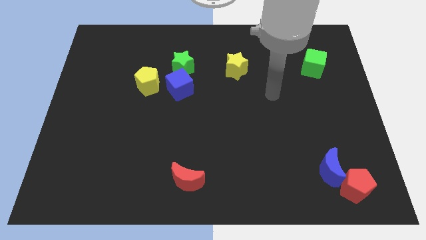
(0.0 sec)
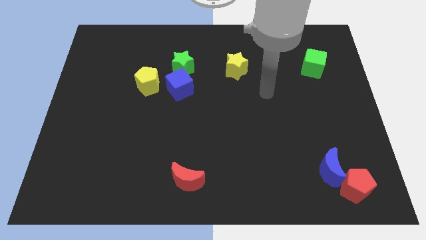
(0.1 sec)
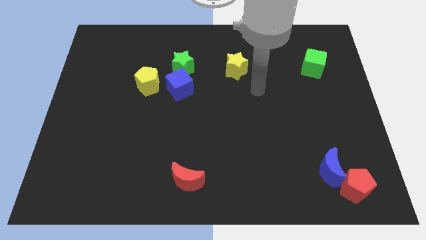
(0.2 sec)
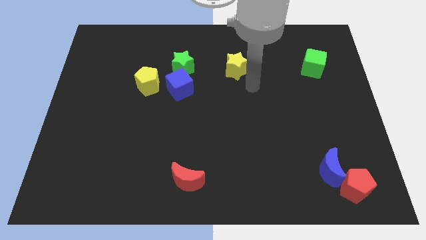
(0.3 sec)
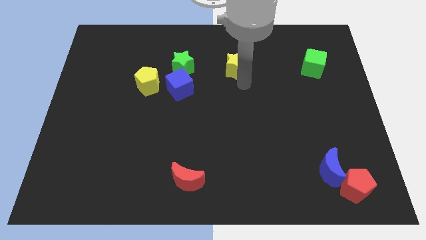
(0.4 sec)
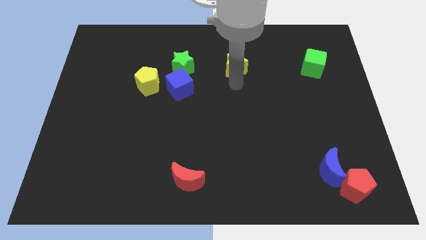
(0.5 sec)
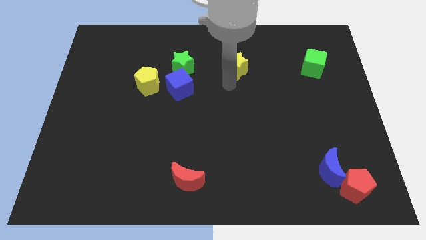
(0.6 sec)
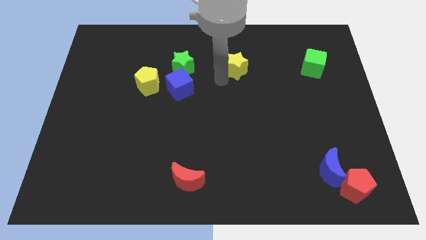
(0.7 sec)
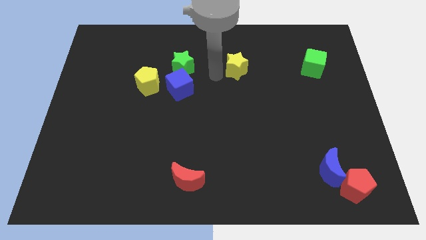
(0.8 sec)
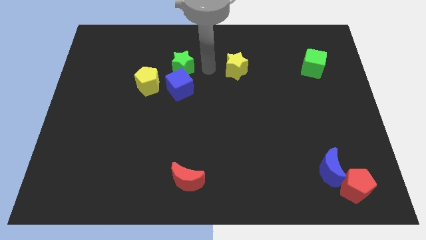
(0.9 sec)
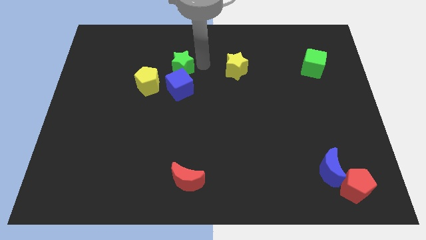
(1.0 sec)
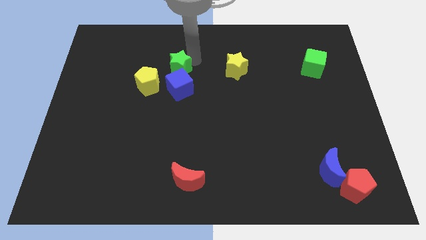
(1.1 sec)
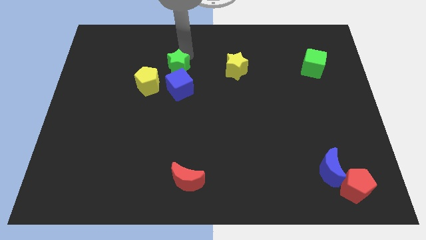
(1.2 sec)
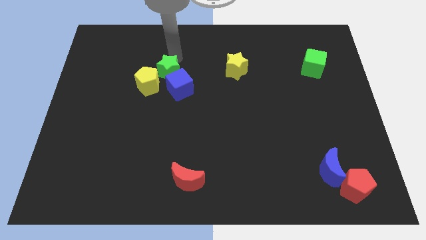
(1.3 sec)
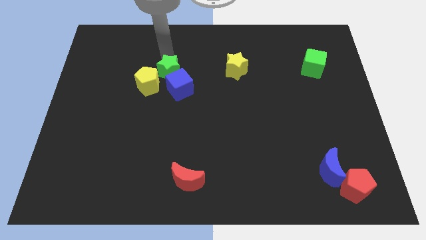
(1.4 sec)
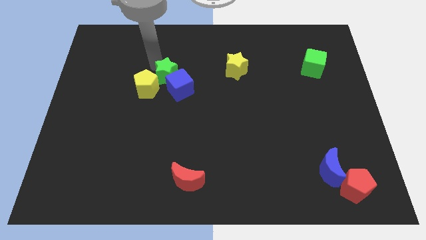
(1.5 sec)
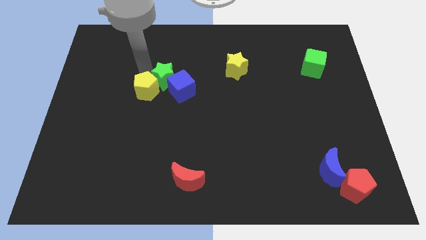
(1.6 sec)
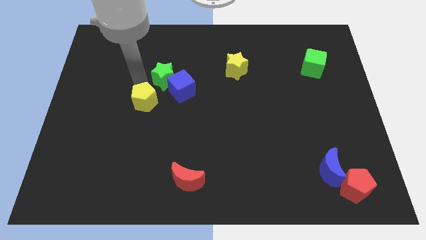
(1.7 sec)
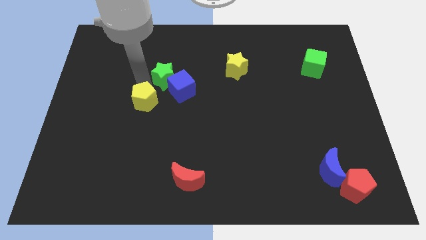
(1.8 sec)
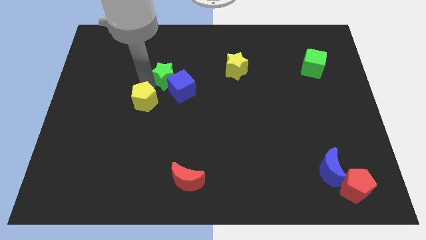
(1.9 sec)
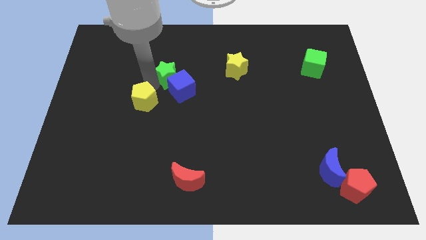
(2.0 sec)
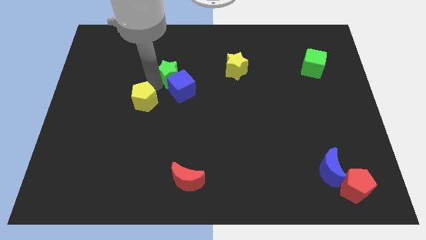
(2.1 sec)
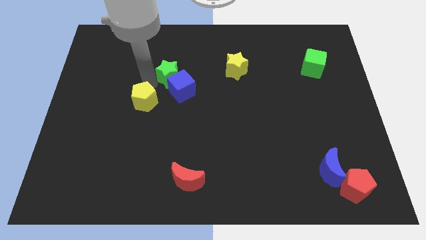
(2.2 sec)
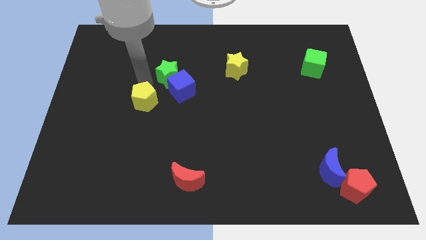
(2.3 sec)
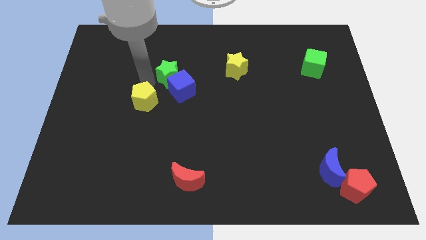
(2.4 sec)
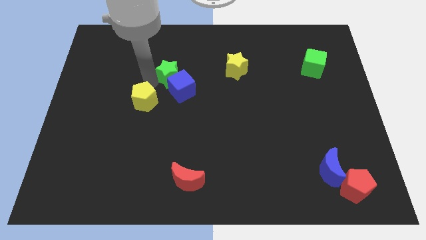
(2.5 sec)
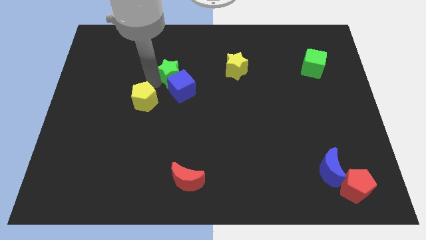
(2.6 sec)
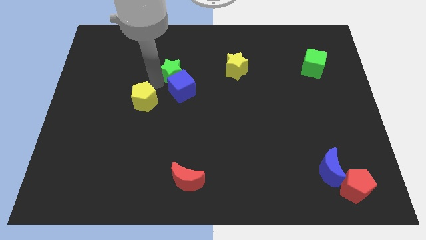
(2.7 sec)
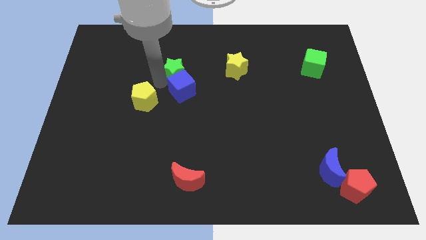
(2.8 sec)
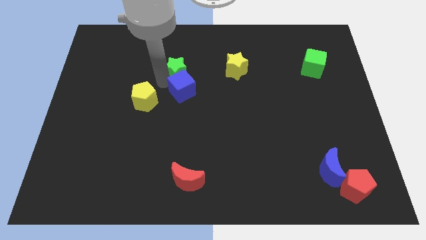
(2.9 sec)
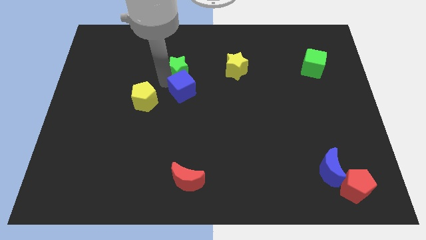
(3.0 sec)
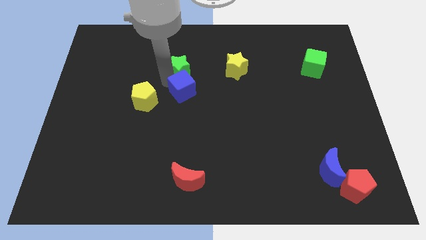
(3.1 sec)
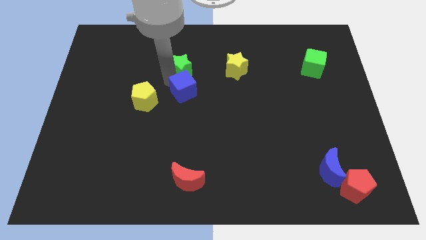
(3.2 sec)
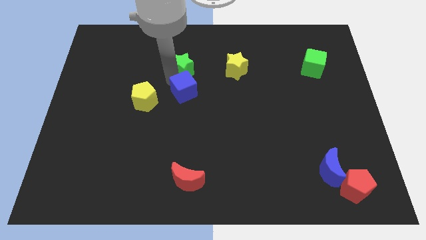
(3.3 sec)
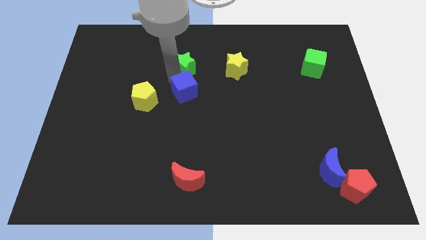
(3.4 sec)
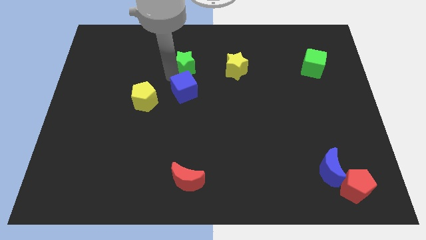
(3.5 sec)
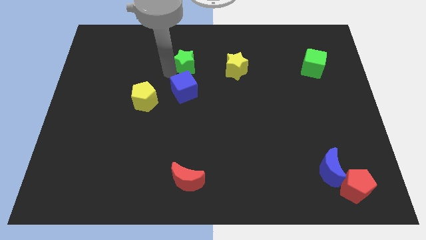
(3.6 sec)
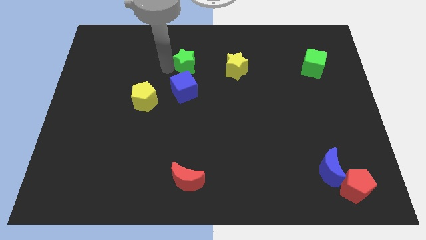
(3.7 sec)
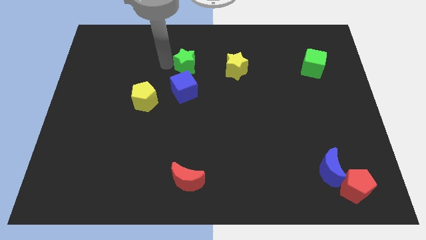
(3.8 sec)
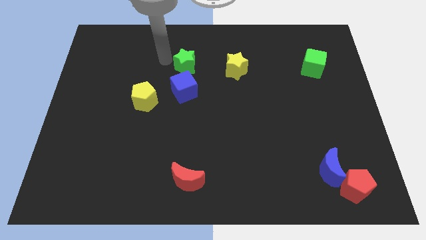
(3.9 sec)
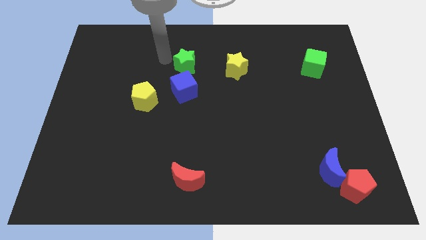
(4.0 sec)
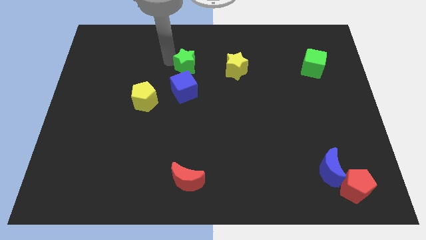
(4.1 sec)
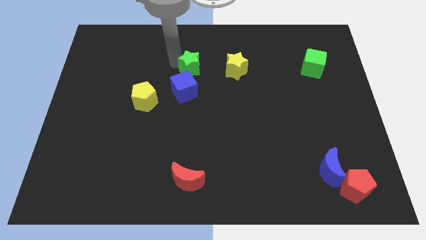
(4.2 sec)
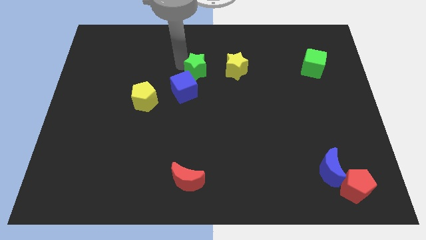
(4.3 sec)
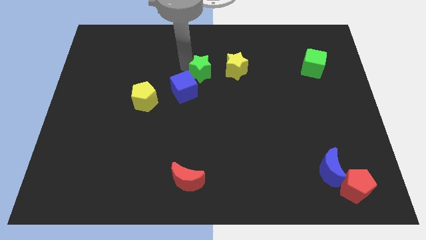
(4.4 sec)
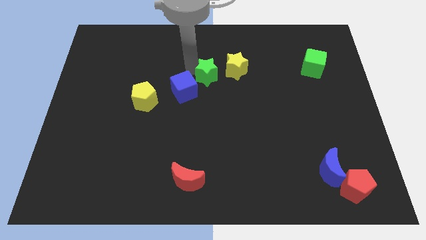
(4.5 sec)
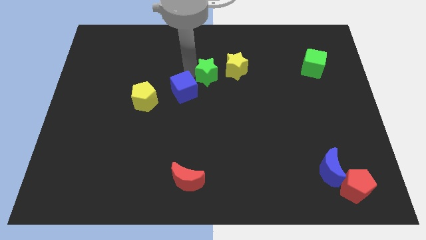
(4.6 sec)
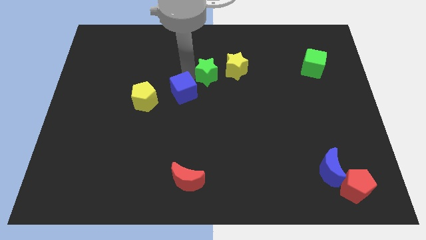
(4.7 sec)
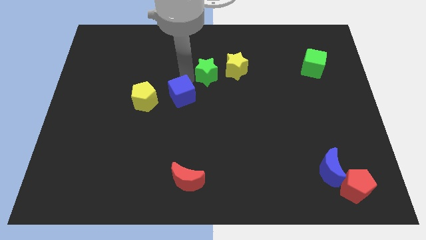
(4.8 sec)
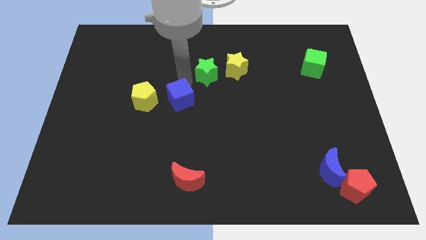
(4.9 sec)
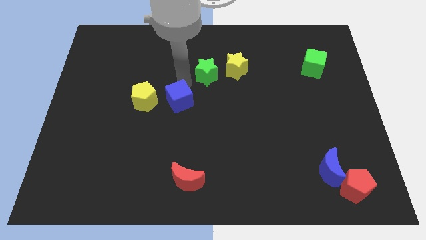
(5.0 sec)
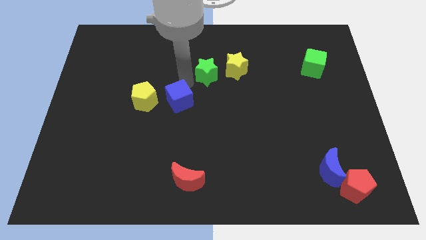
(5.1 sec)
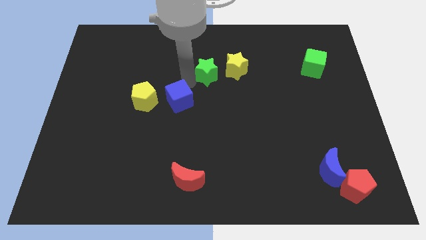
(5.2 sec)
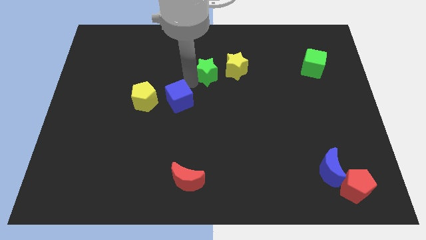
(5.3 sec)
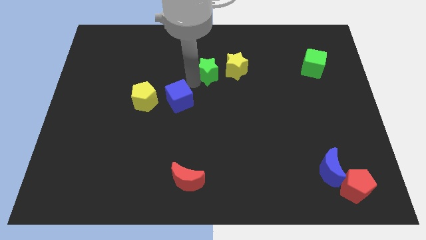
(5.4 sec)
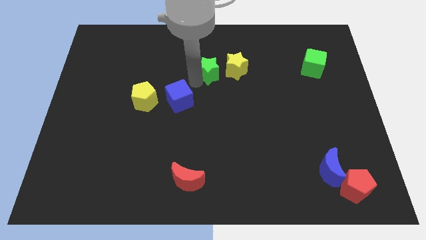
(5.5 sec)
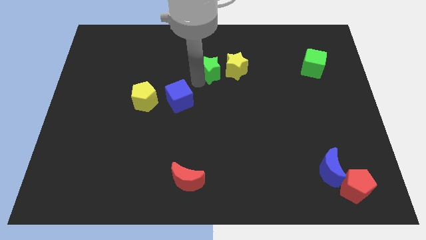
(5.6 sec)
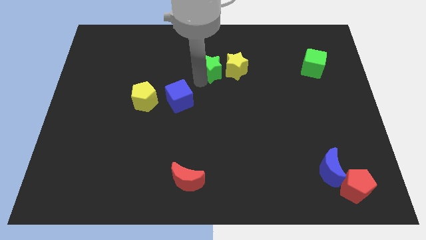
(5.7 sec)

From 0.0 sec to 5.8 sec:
slide the green star to the yellow star

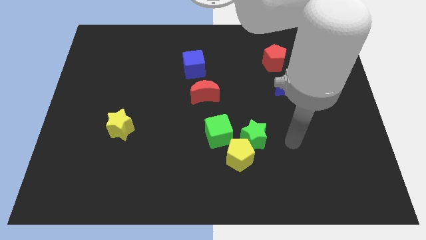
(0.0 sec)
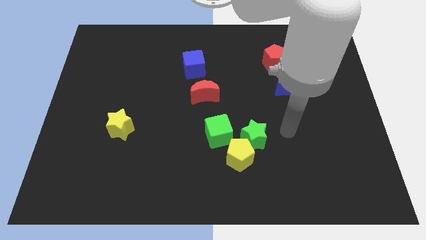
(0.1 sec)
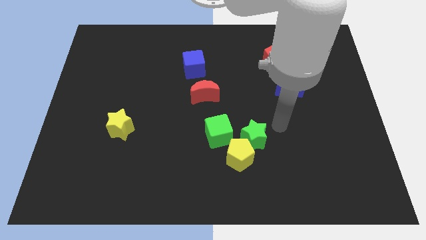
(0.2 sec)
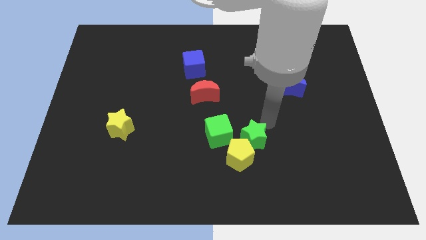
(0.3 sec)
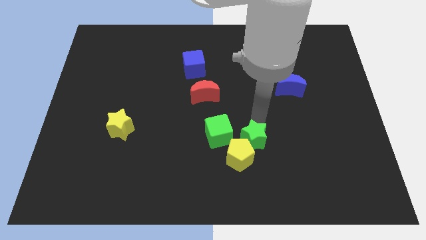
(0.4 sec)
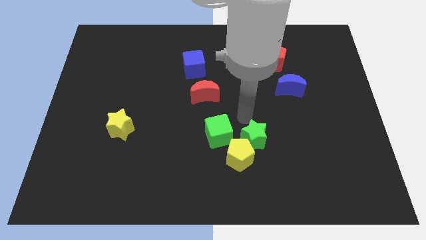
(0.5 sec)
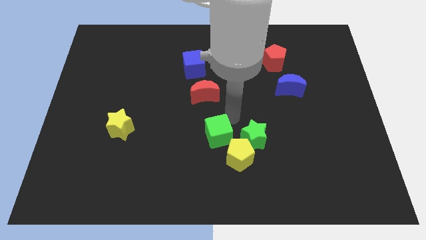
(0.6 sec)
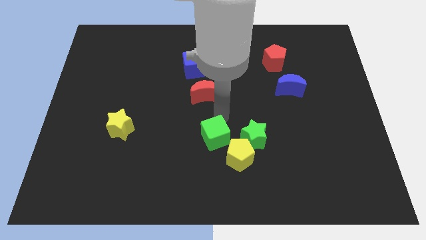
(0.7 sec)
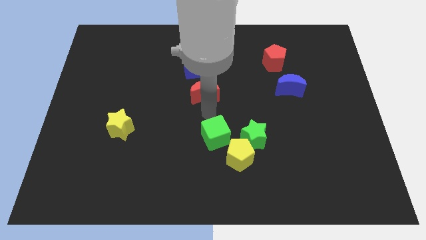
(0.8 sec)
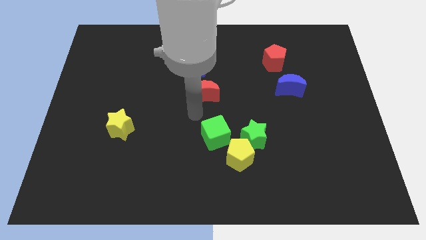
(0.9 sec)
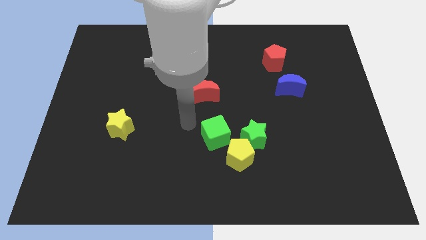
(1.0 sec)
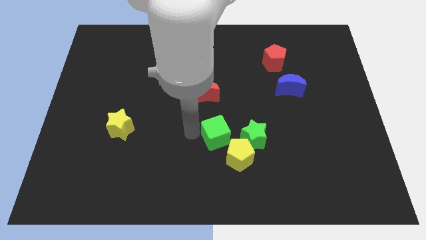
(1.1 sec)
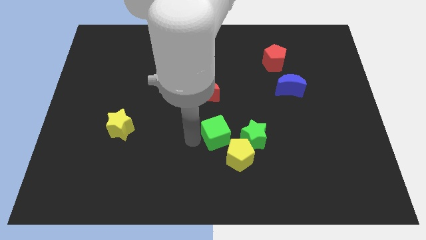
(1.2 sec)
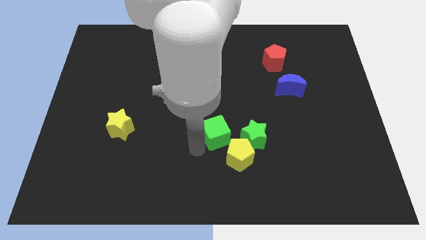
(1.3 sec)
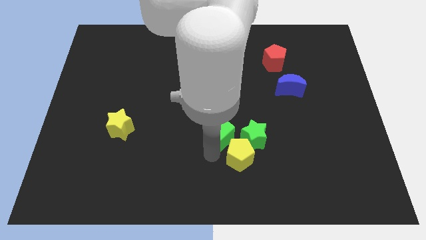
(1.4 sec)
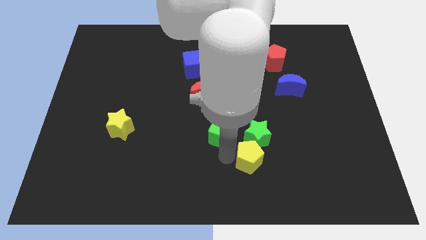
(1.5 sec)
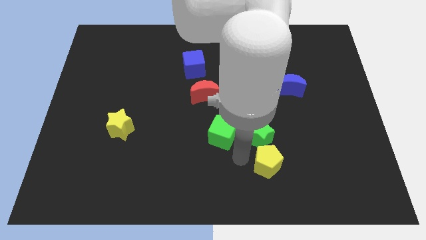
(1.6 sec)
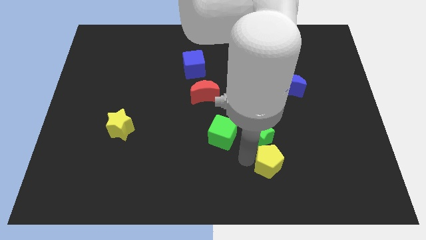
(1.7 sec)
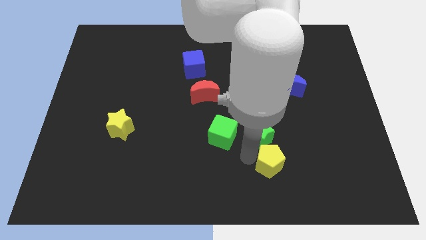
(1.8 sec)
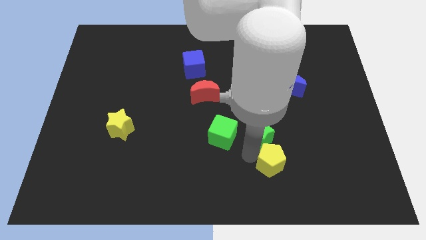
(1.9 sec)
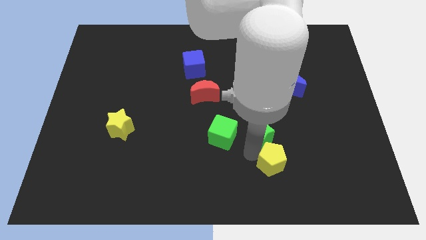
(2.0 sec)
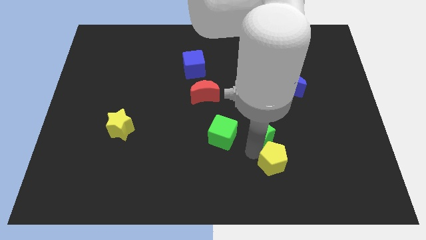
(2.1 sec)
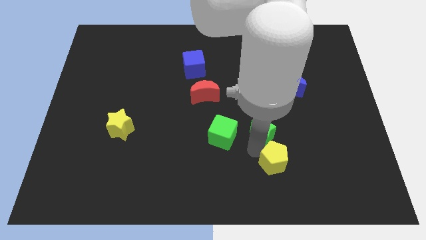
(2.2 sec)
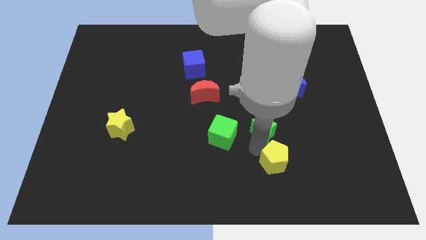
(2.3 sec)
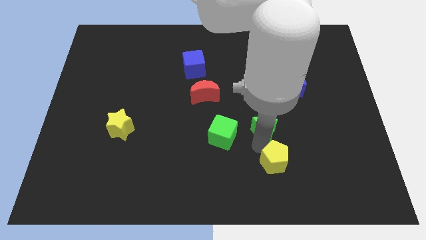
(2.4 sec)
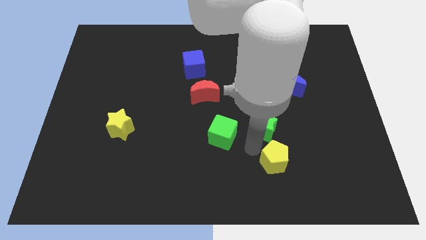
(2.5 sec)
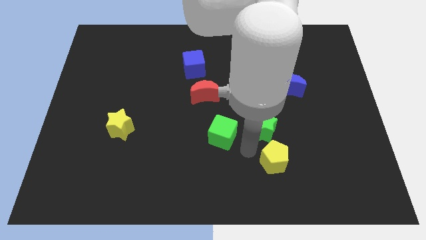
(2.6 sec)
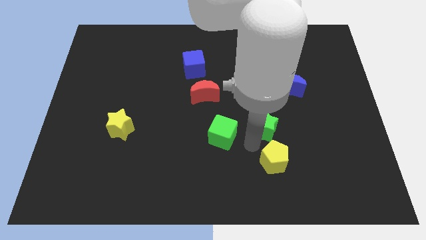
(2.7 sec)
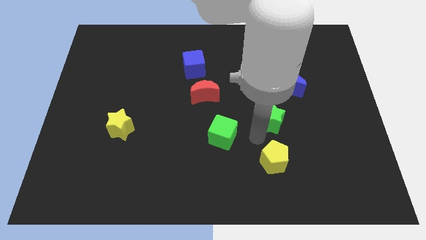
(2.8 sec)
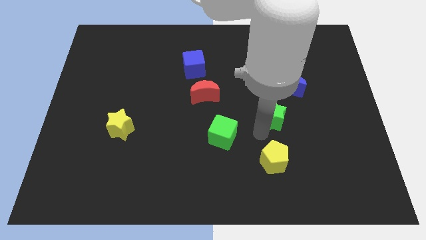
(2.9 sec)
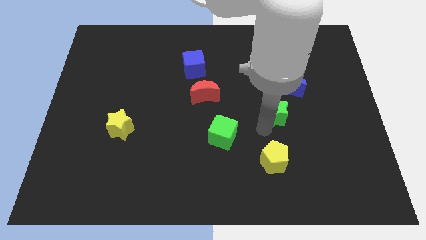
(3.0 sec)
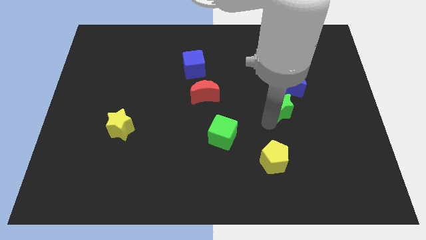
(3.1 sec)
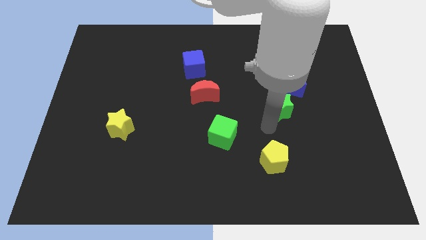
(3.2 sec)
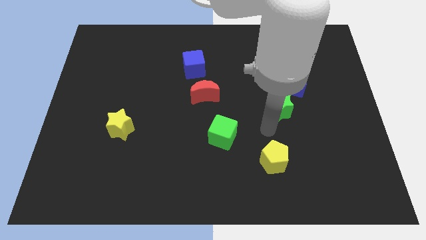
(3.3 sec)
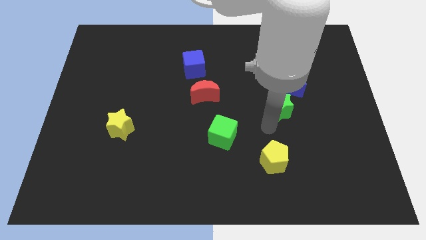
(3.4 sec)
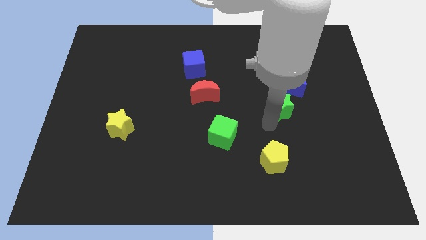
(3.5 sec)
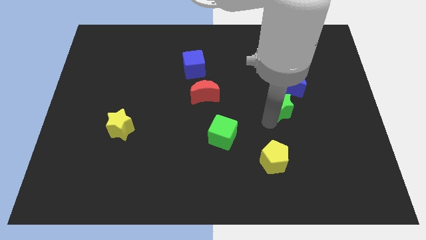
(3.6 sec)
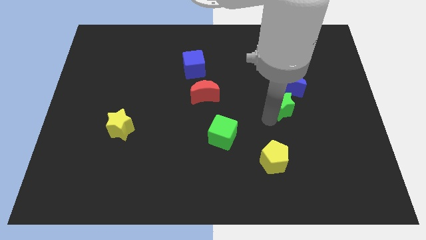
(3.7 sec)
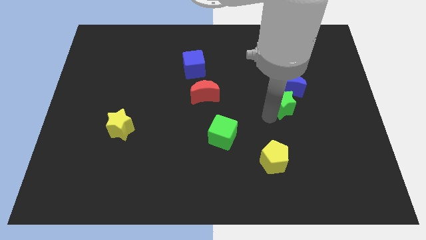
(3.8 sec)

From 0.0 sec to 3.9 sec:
put the green star next to the blue moon
